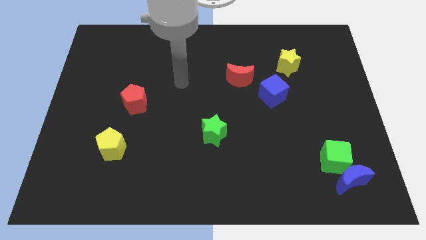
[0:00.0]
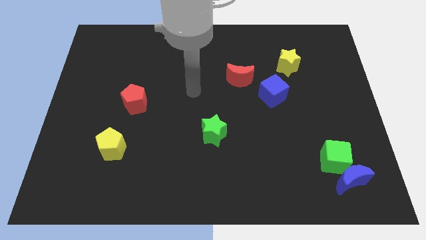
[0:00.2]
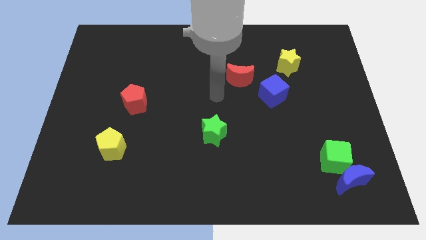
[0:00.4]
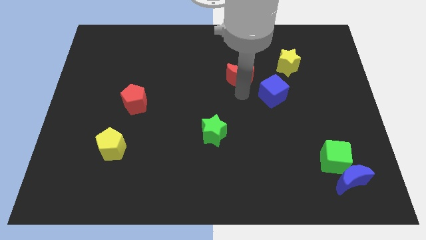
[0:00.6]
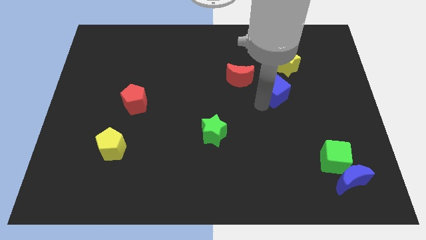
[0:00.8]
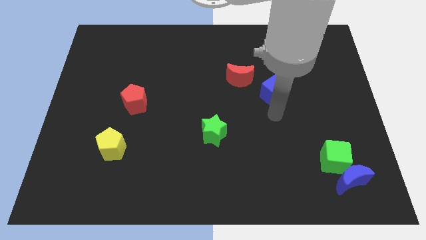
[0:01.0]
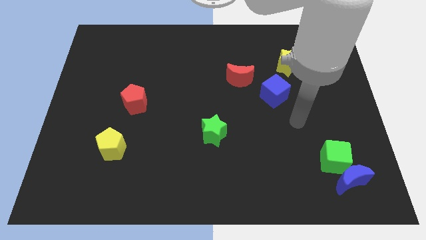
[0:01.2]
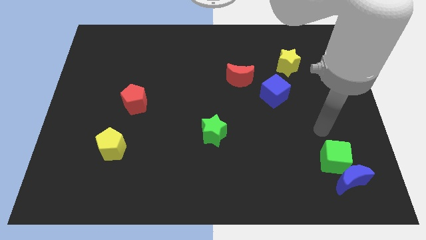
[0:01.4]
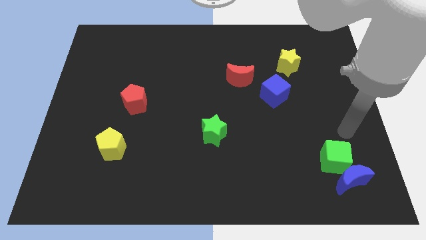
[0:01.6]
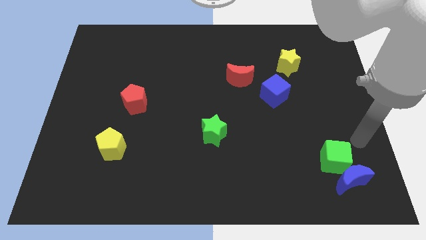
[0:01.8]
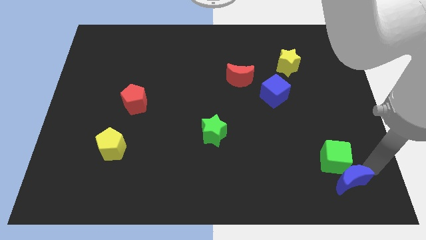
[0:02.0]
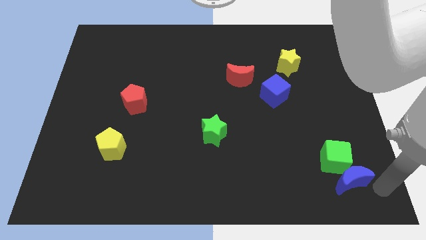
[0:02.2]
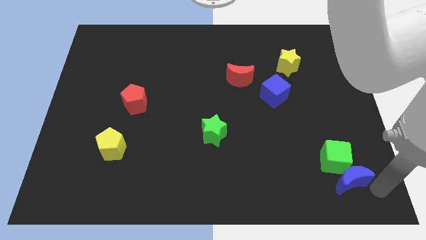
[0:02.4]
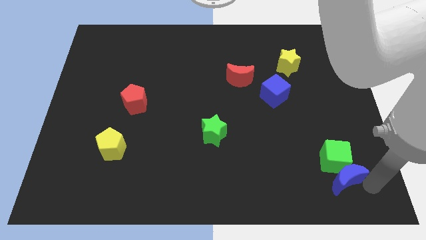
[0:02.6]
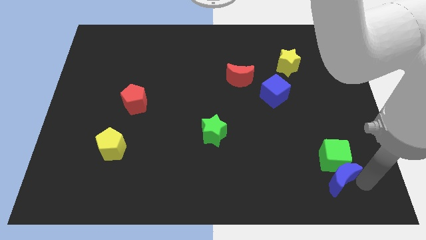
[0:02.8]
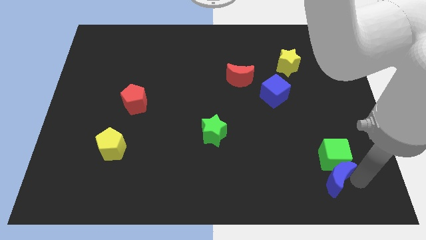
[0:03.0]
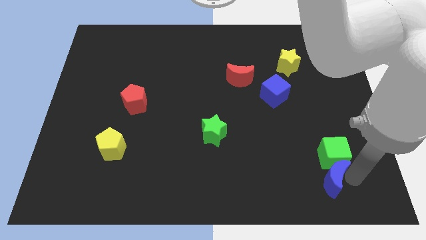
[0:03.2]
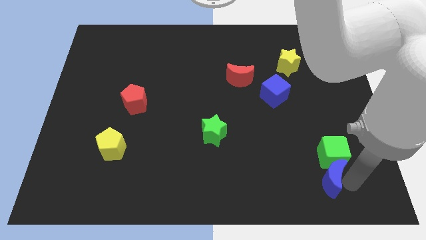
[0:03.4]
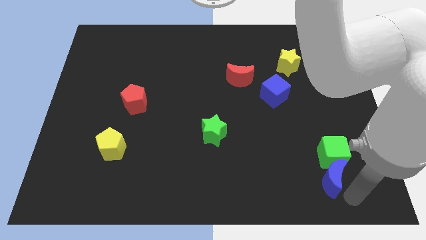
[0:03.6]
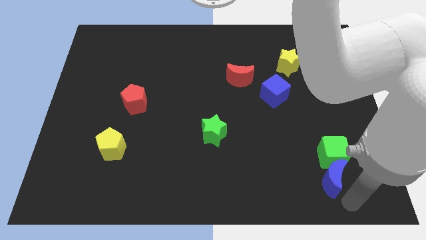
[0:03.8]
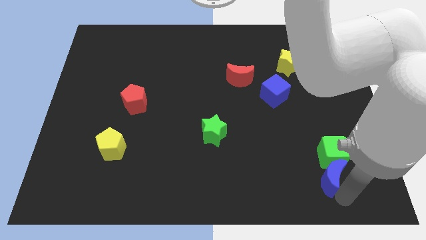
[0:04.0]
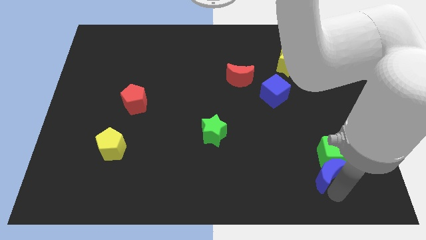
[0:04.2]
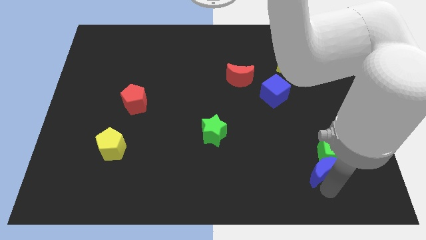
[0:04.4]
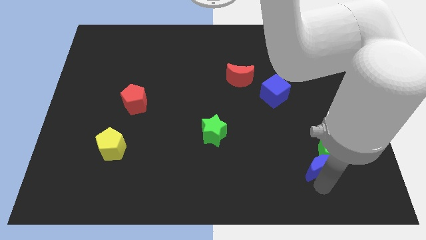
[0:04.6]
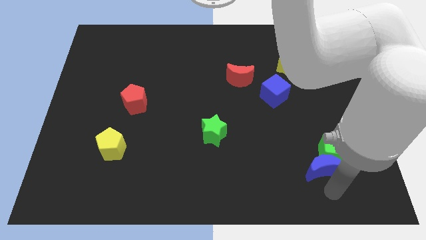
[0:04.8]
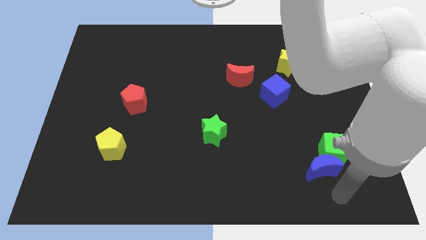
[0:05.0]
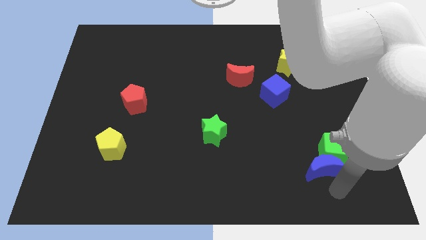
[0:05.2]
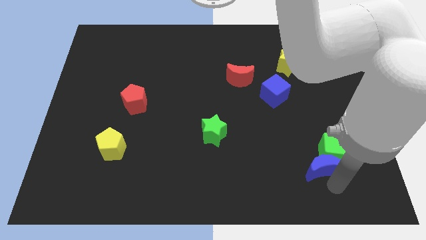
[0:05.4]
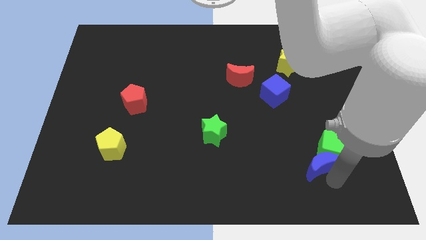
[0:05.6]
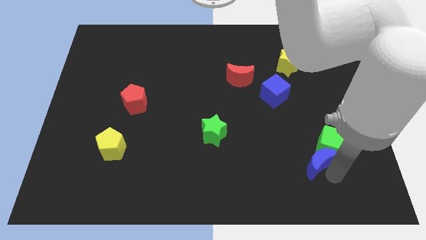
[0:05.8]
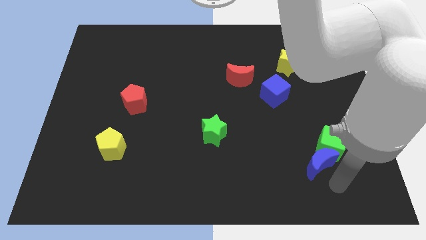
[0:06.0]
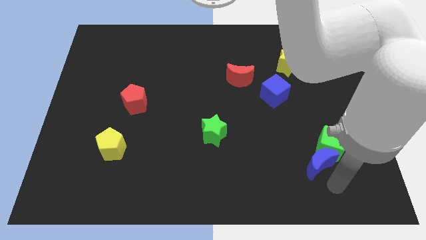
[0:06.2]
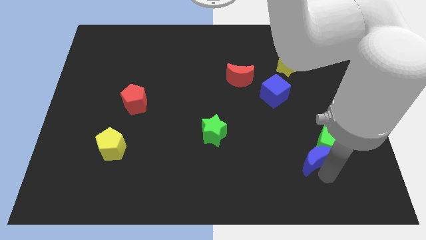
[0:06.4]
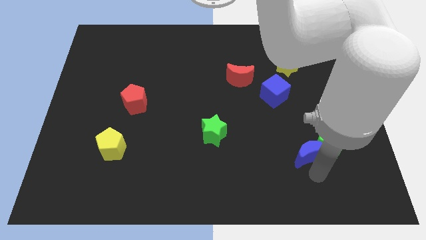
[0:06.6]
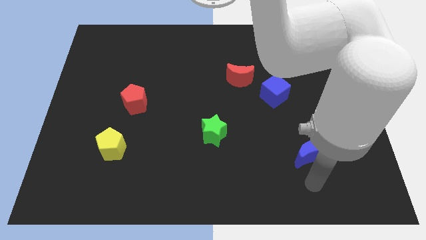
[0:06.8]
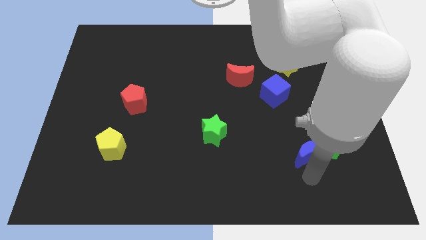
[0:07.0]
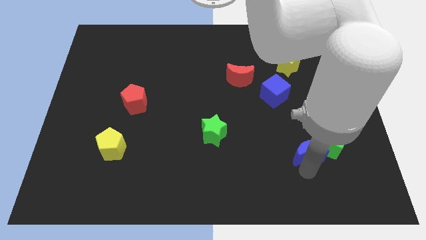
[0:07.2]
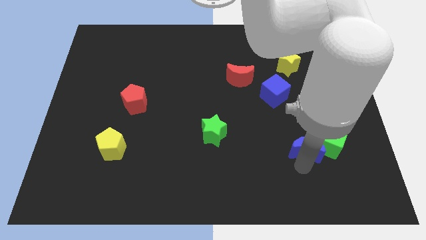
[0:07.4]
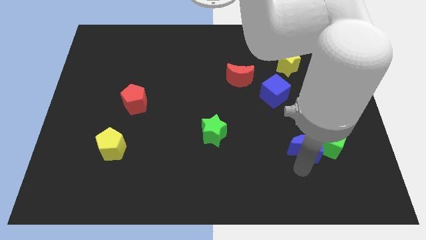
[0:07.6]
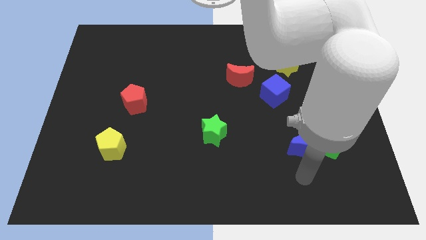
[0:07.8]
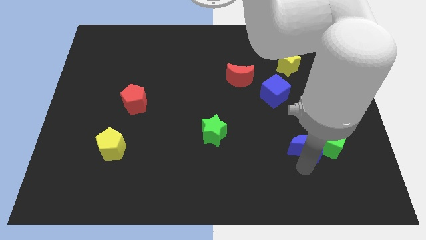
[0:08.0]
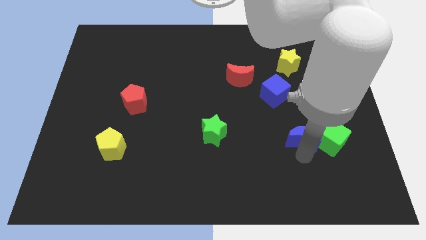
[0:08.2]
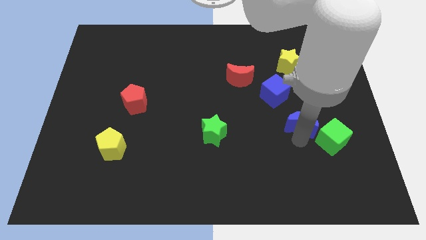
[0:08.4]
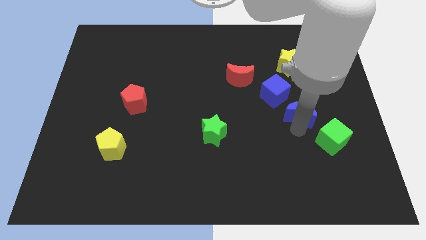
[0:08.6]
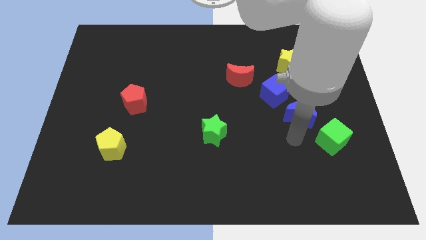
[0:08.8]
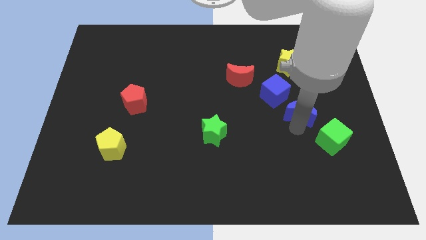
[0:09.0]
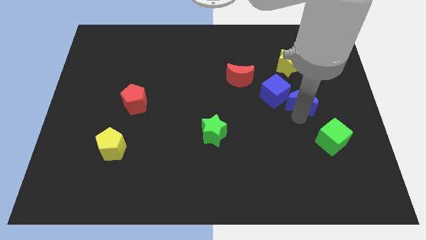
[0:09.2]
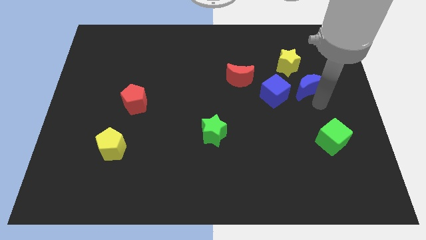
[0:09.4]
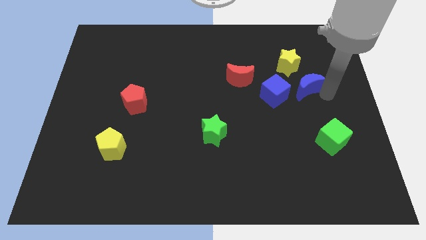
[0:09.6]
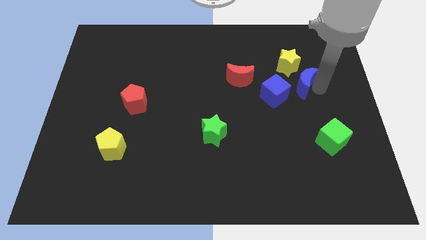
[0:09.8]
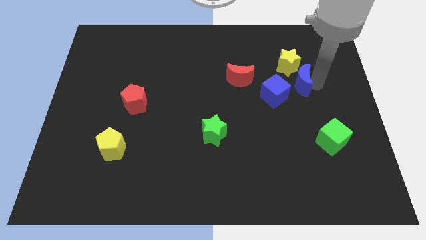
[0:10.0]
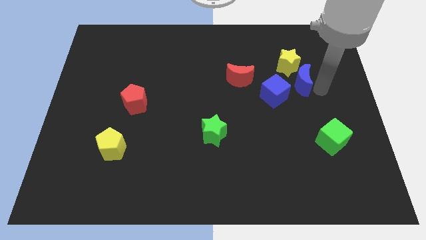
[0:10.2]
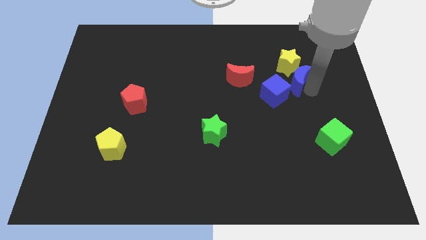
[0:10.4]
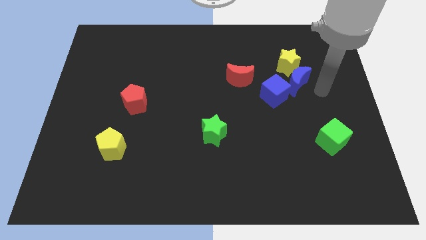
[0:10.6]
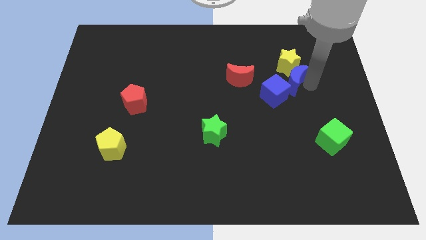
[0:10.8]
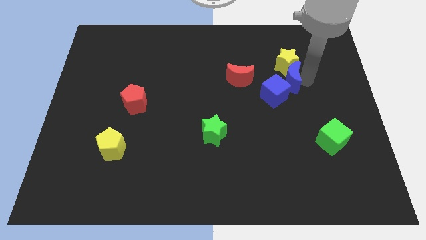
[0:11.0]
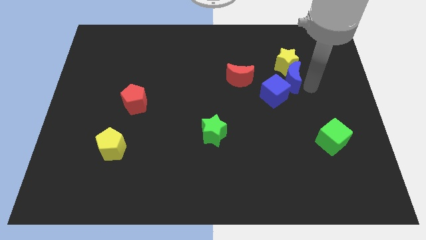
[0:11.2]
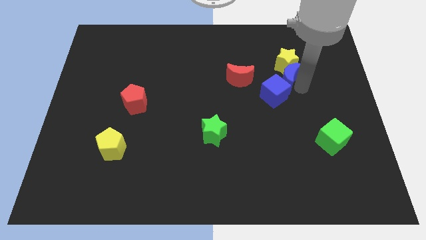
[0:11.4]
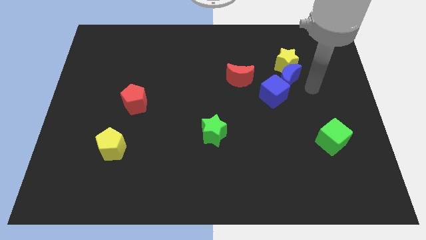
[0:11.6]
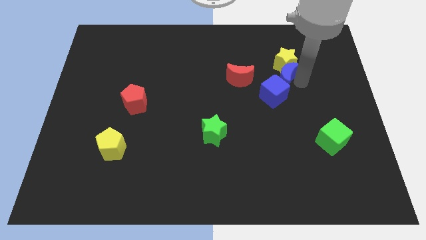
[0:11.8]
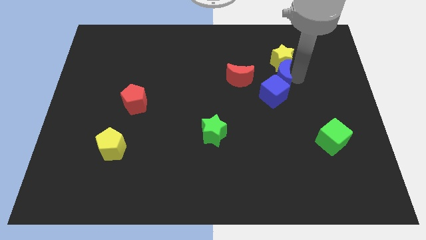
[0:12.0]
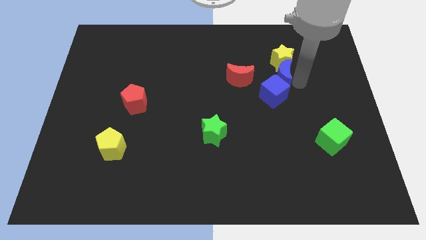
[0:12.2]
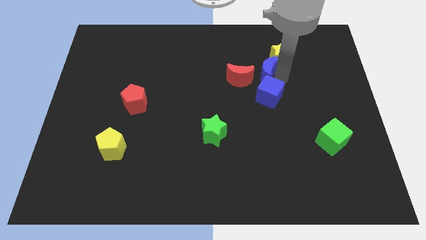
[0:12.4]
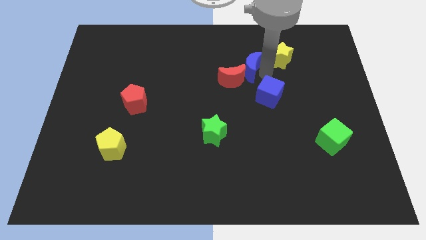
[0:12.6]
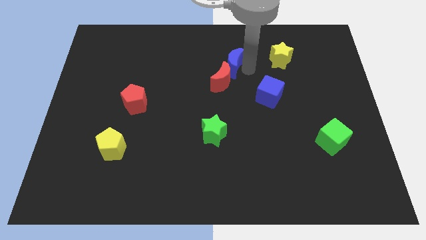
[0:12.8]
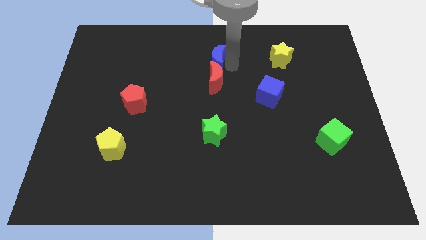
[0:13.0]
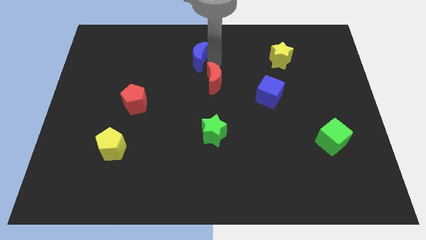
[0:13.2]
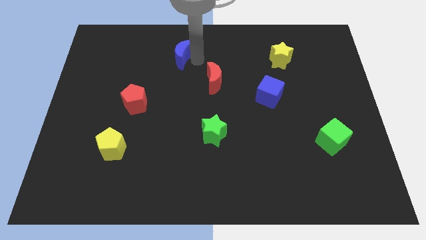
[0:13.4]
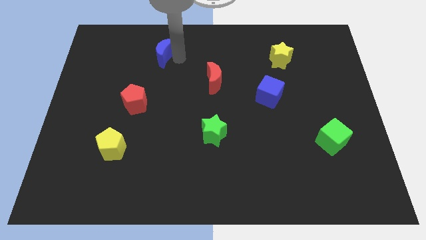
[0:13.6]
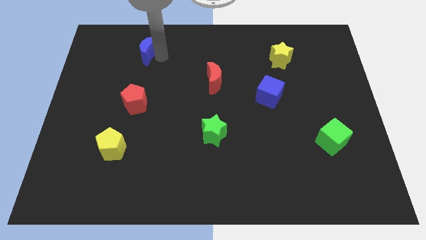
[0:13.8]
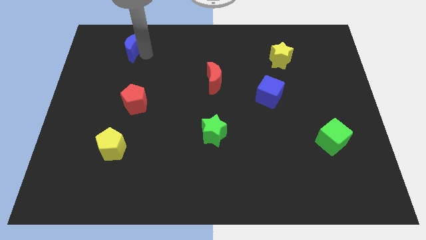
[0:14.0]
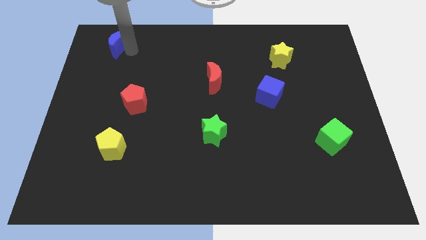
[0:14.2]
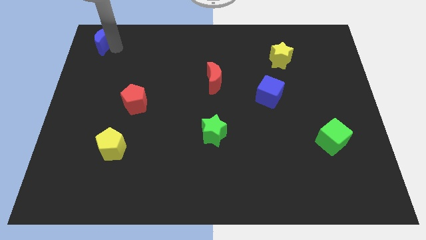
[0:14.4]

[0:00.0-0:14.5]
put the blue moon to the top left
